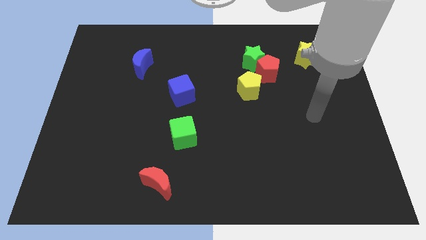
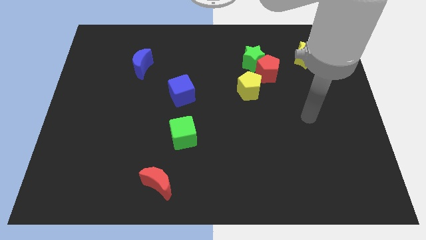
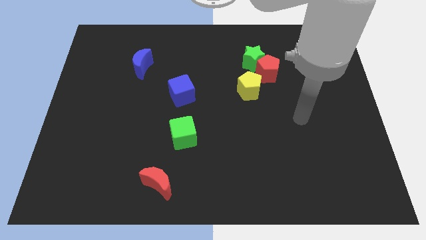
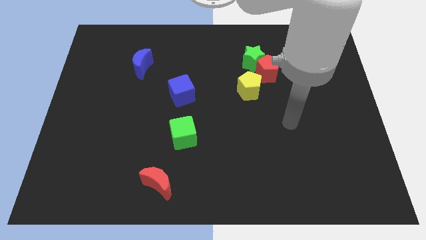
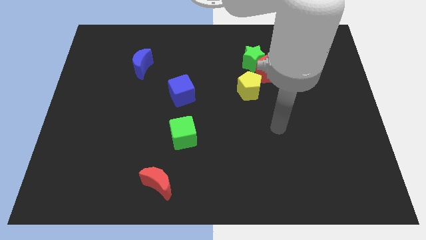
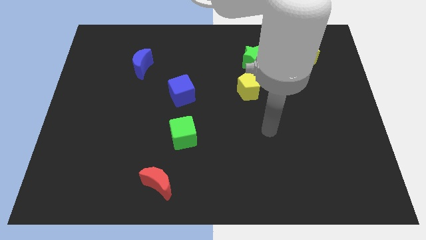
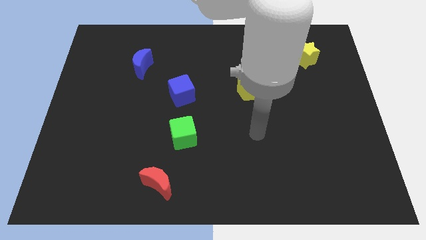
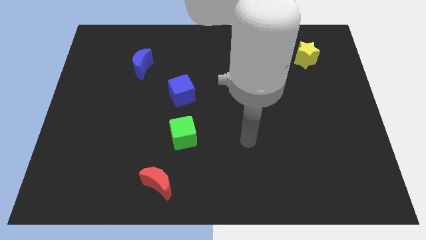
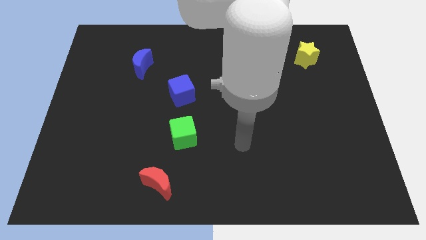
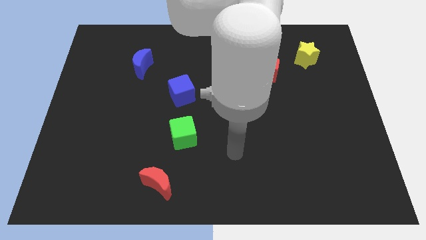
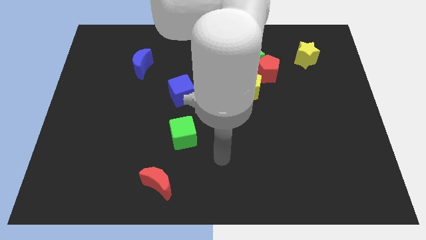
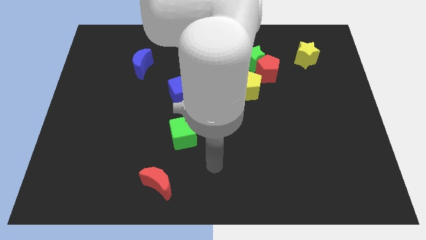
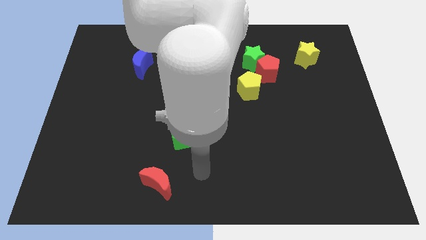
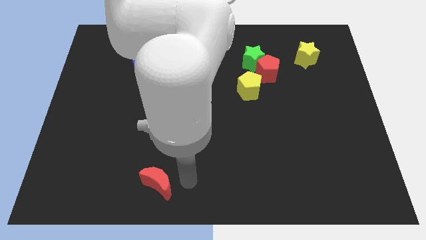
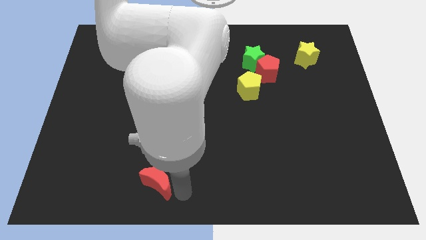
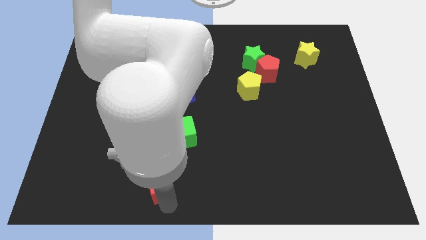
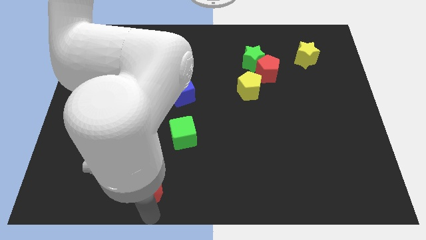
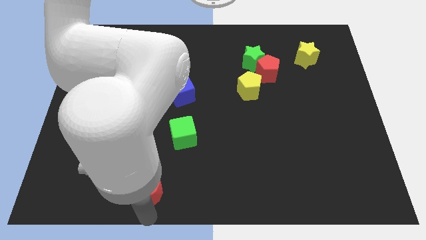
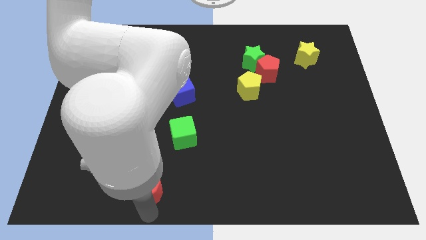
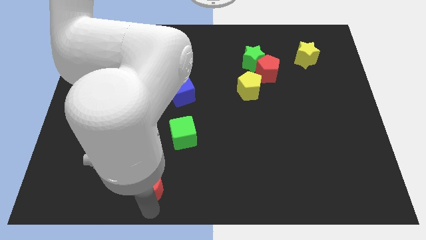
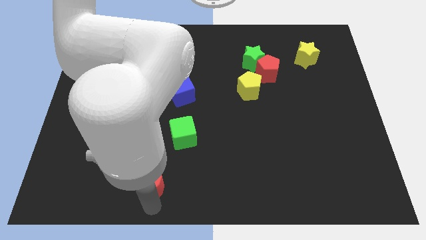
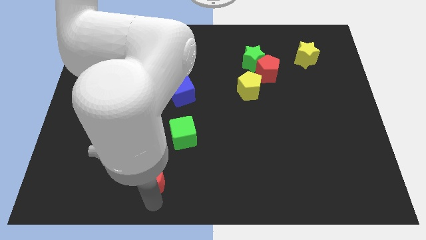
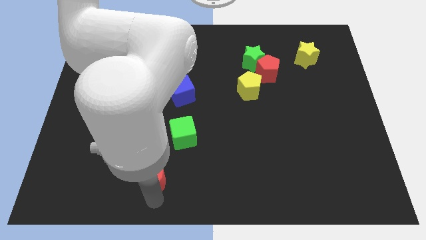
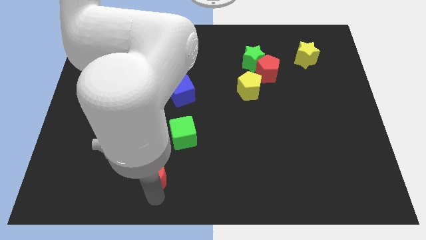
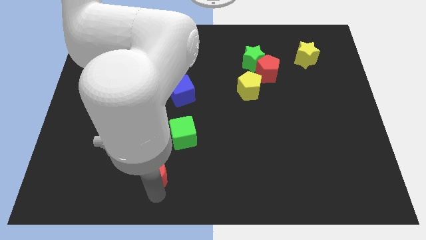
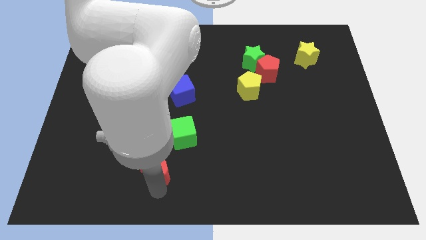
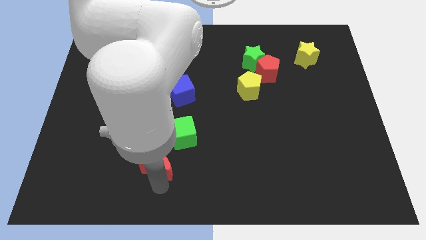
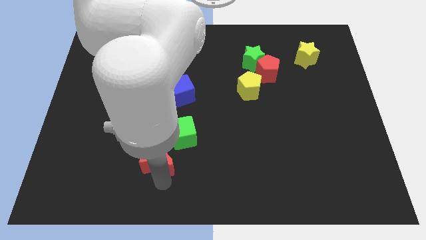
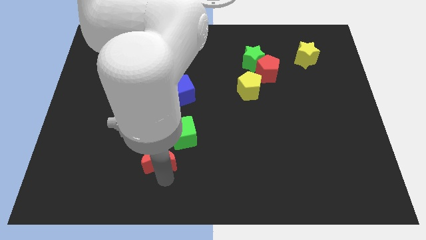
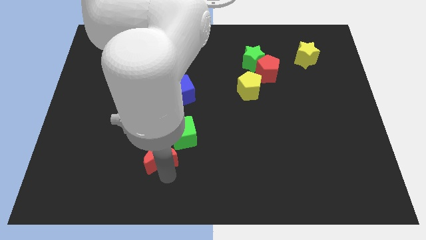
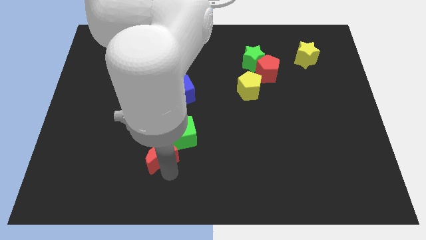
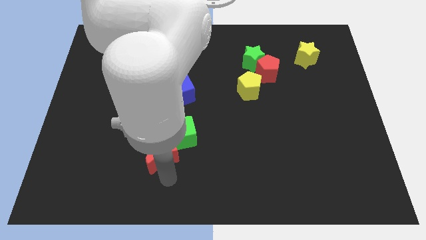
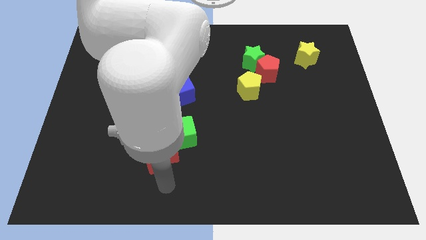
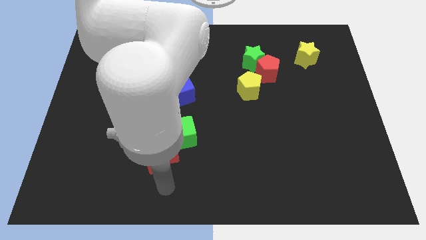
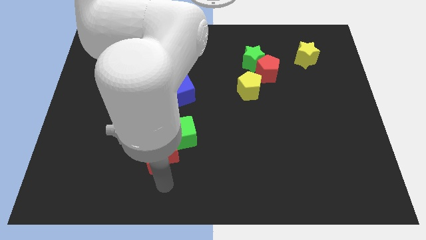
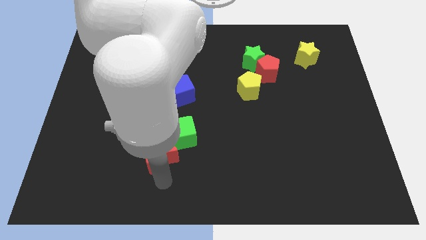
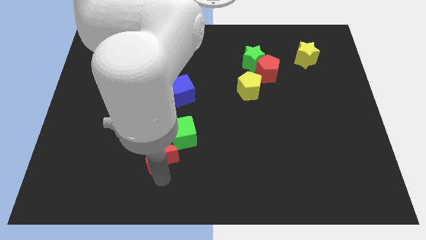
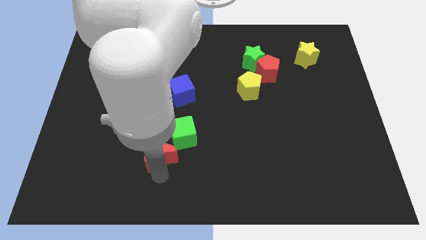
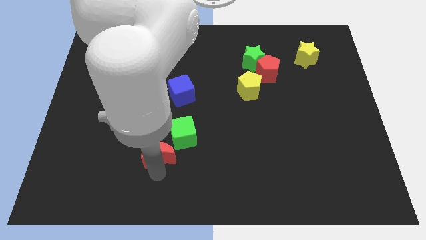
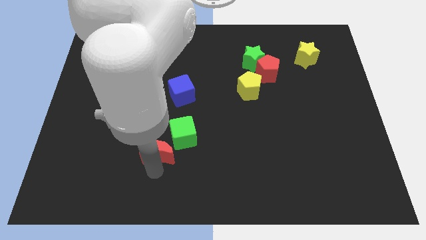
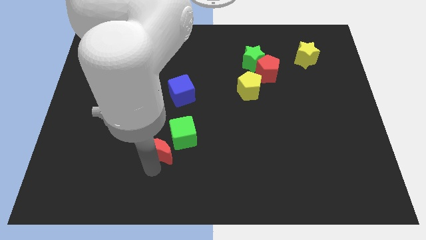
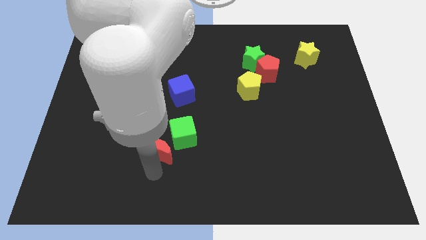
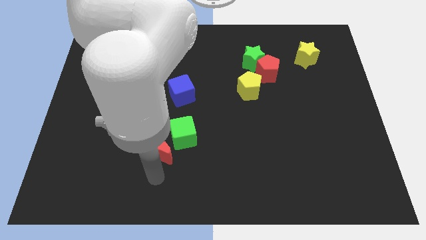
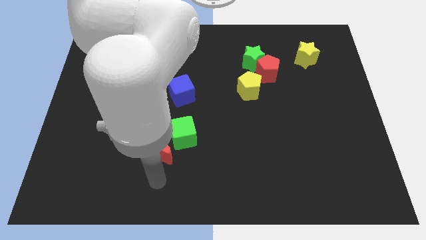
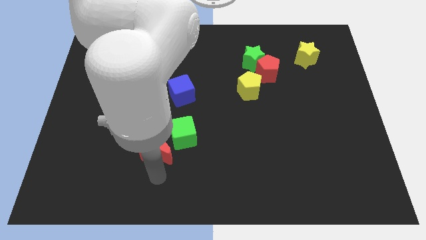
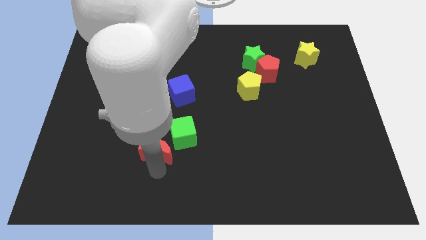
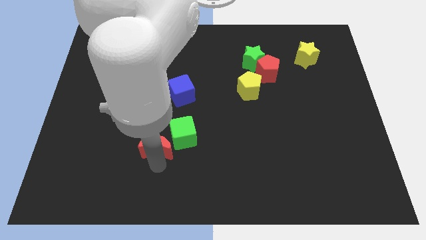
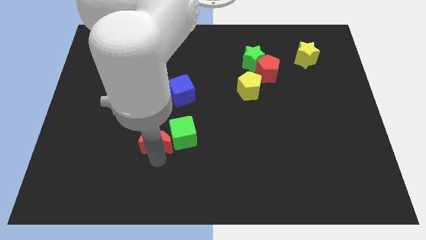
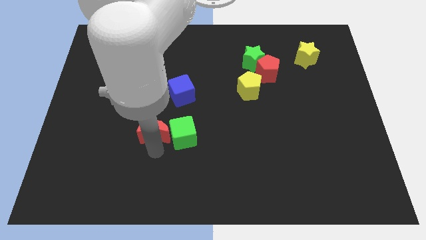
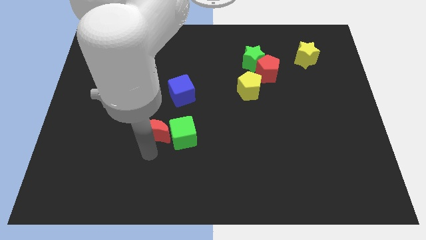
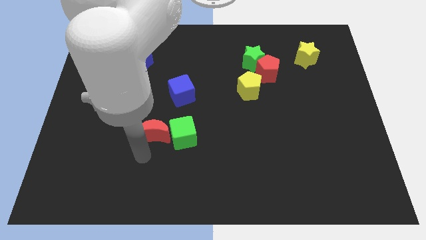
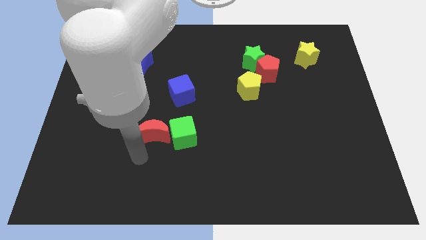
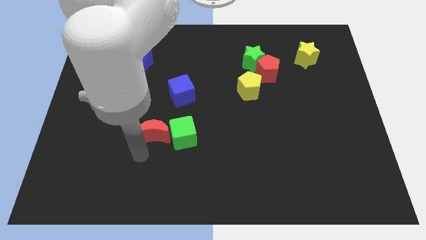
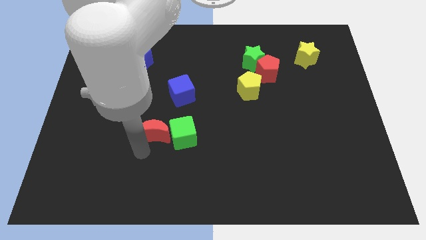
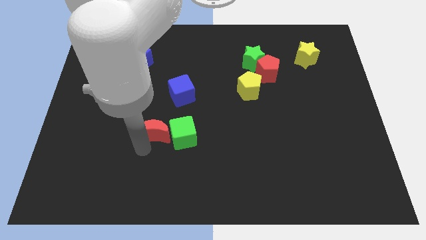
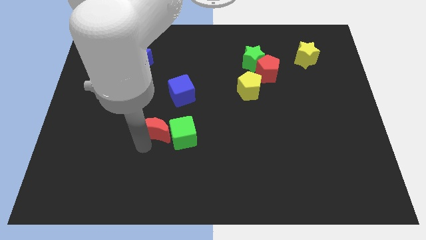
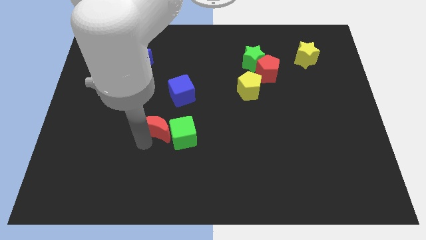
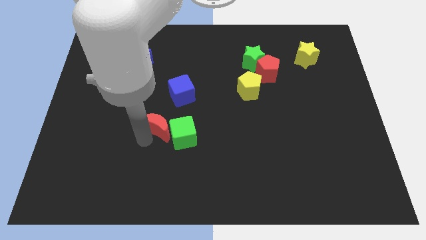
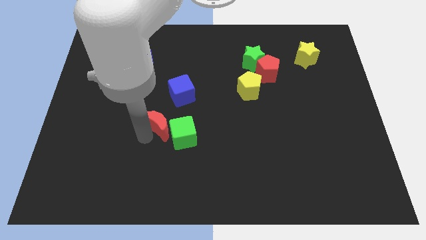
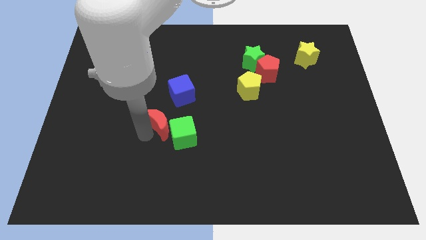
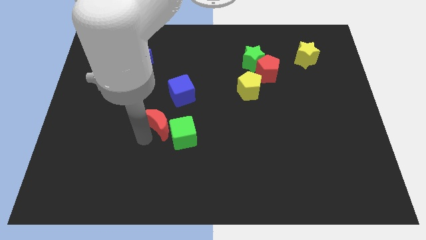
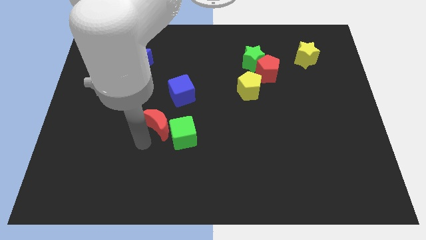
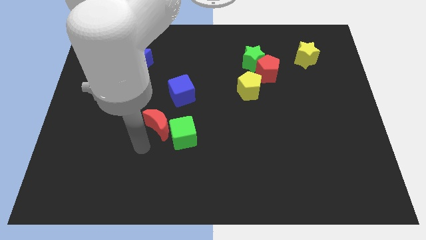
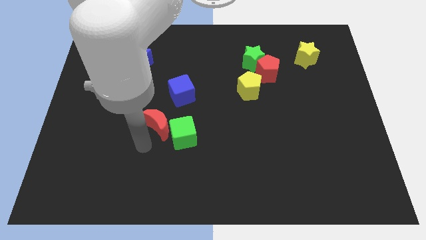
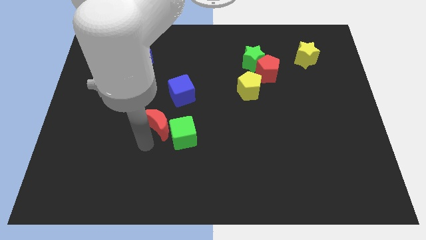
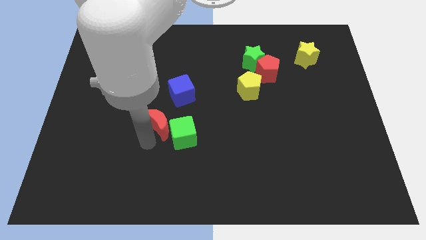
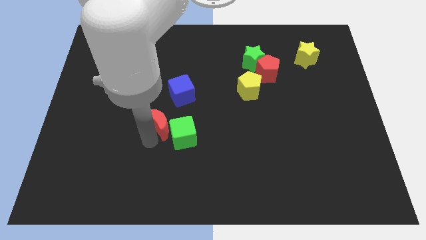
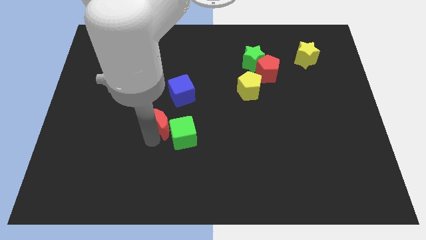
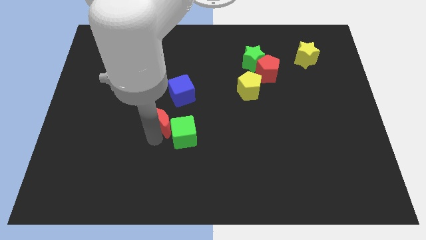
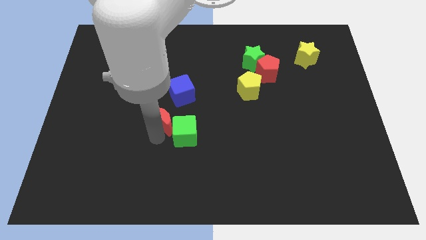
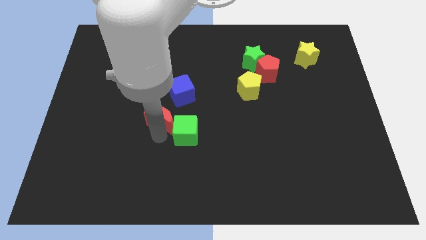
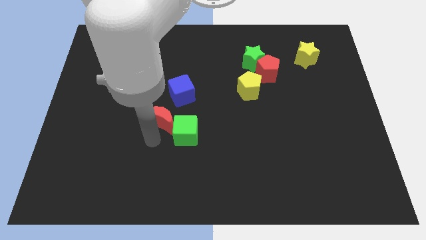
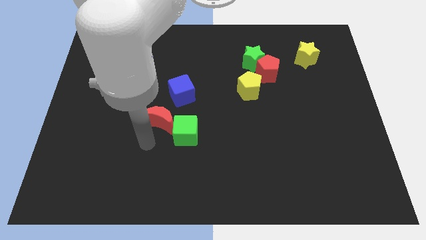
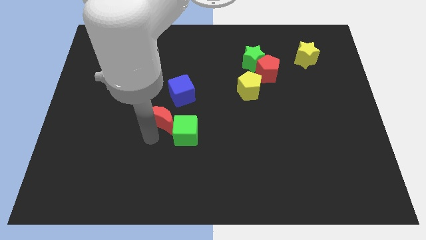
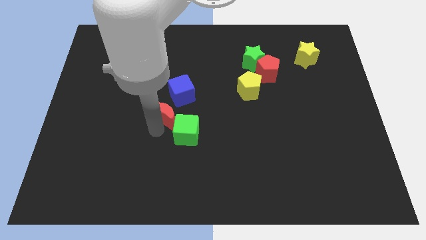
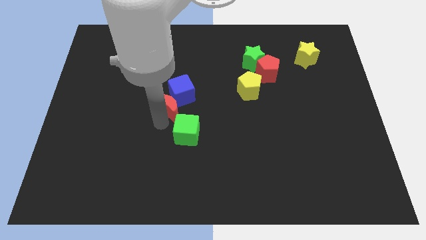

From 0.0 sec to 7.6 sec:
move the red moon towards the blue cube

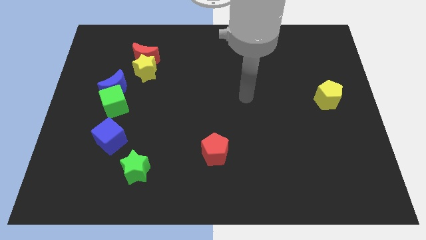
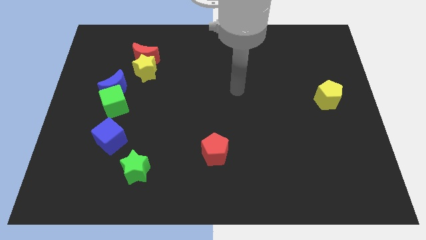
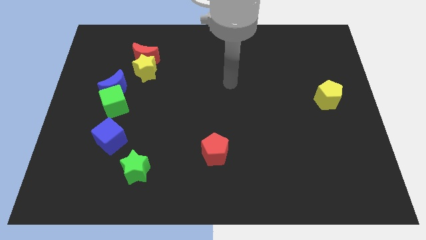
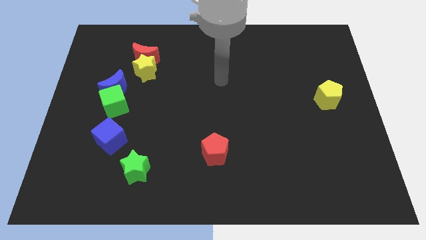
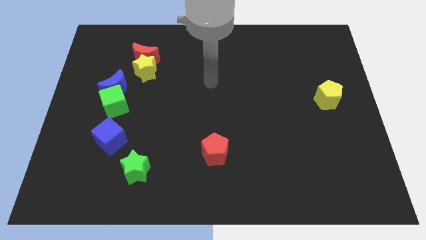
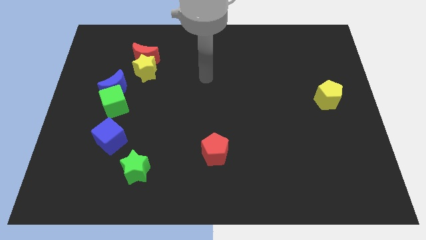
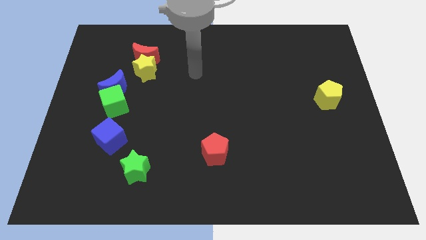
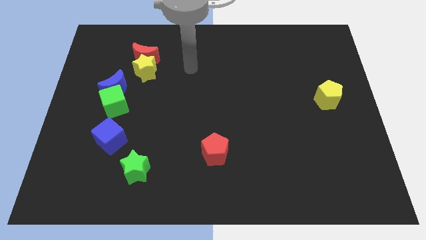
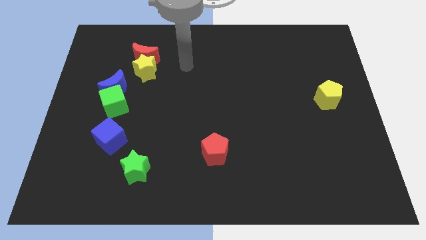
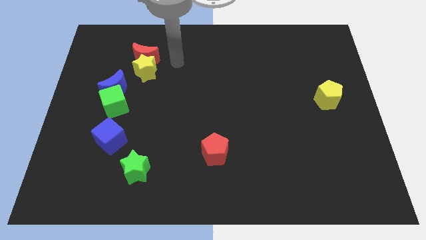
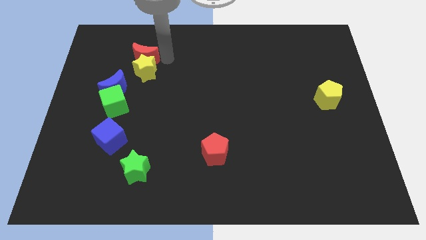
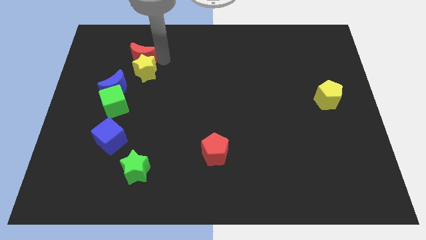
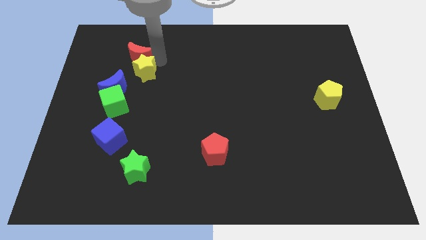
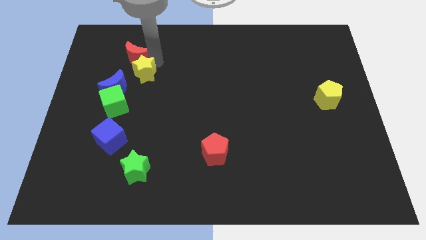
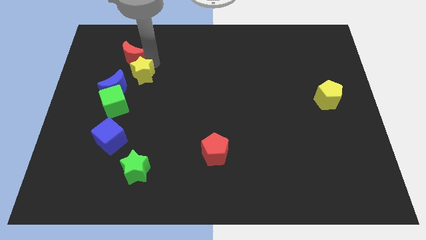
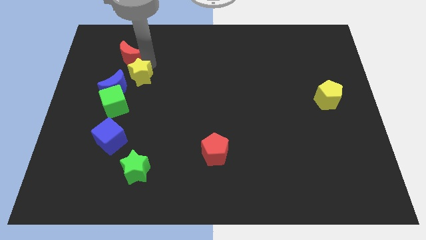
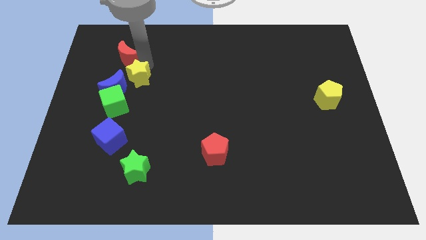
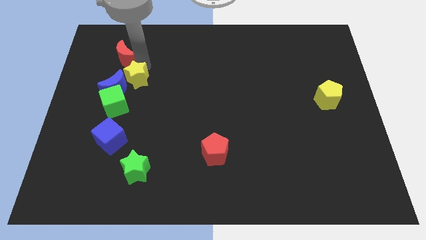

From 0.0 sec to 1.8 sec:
move the yellow star to the blue moon
